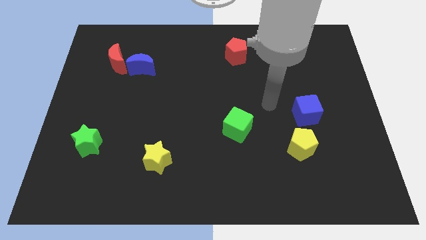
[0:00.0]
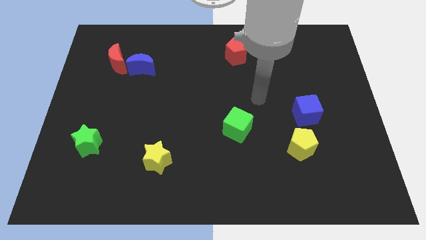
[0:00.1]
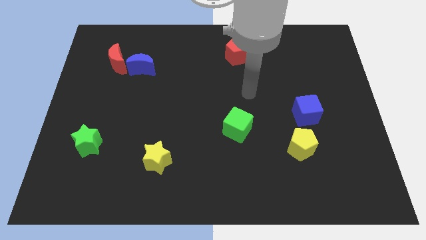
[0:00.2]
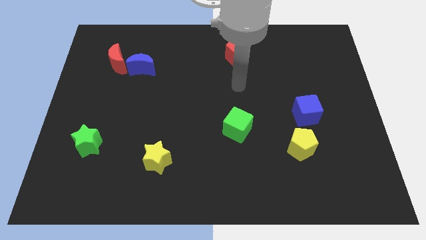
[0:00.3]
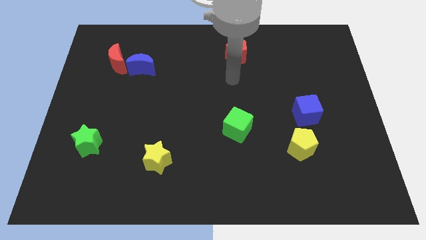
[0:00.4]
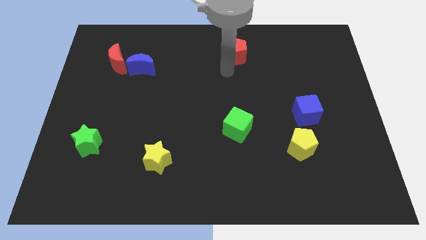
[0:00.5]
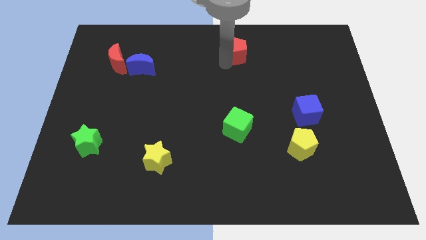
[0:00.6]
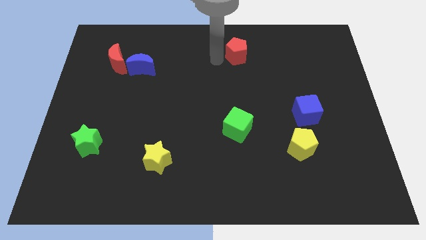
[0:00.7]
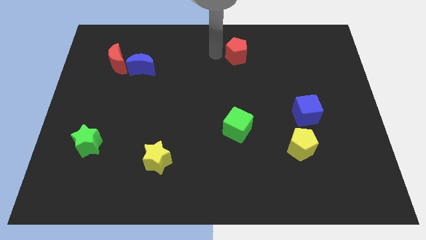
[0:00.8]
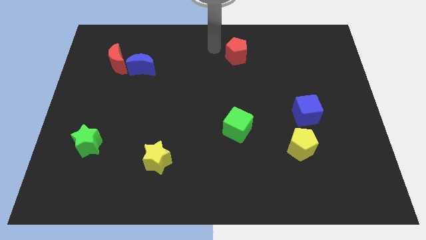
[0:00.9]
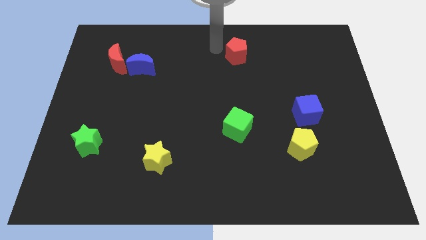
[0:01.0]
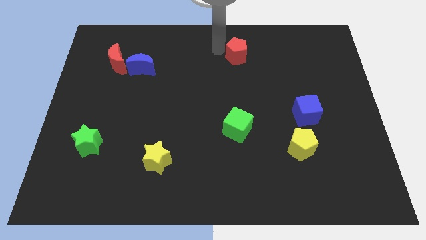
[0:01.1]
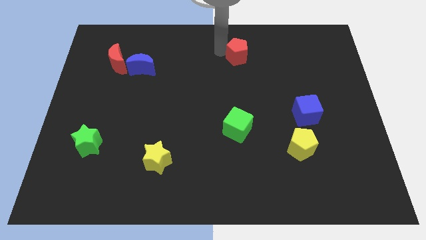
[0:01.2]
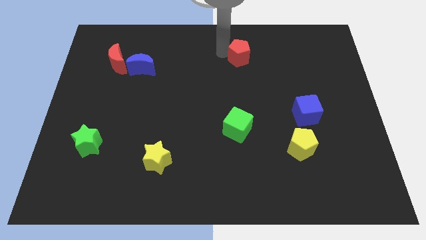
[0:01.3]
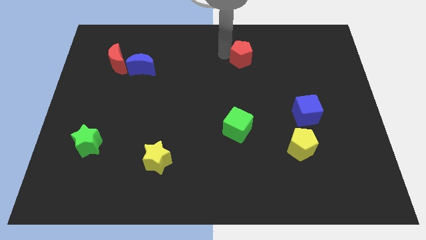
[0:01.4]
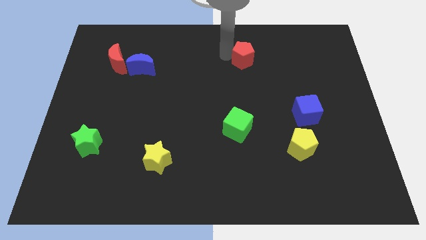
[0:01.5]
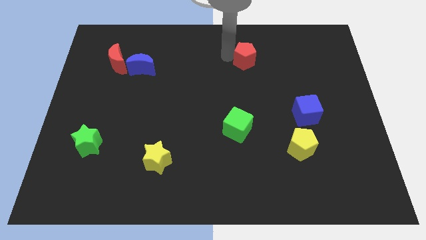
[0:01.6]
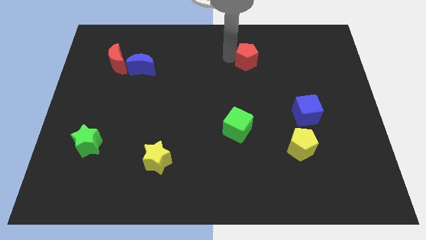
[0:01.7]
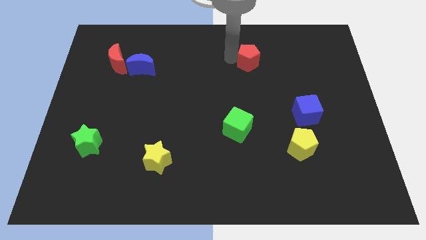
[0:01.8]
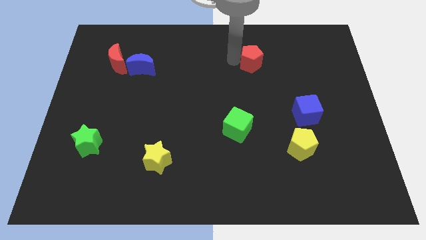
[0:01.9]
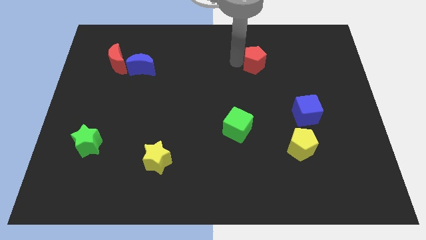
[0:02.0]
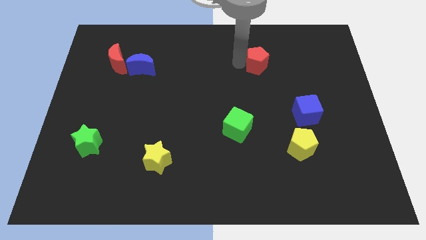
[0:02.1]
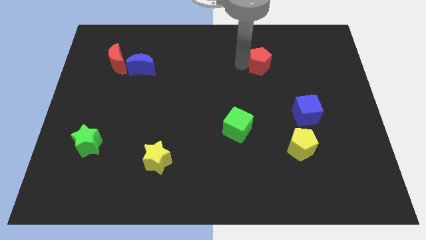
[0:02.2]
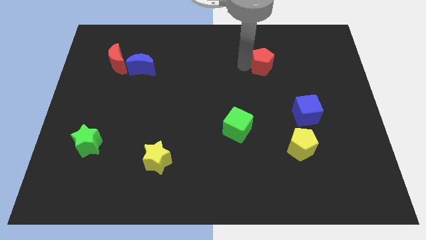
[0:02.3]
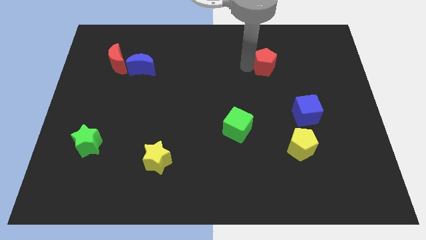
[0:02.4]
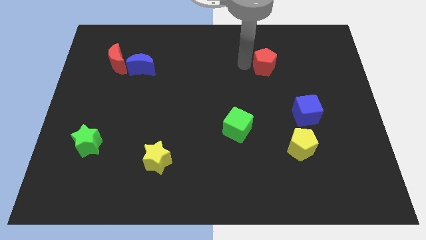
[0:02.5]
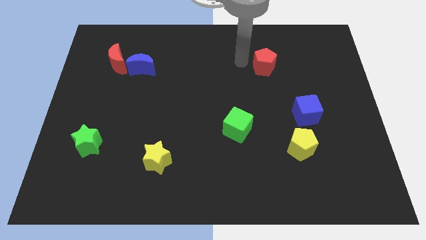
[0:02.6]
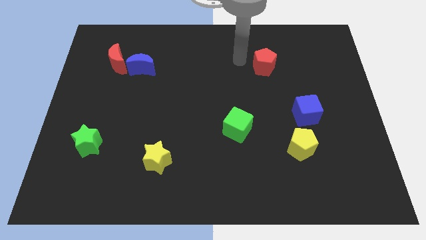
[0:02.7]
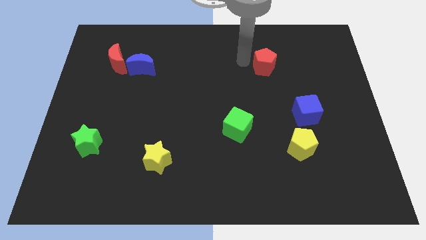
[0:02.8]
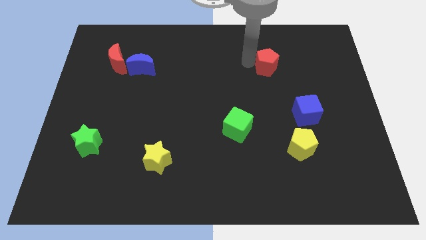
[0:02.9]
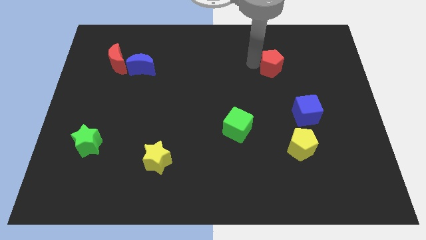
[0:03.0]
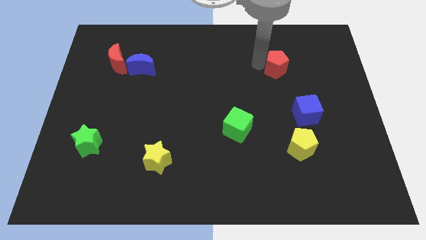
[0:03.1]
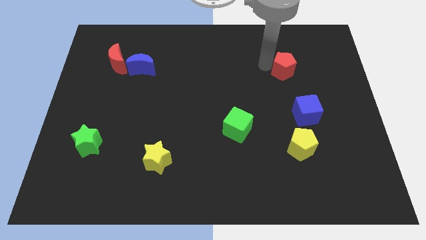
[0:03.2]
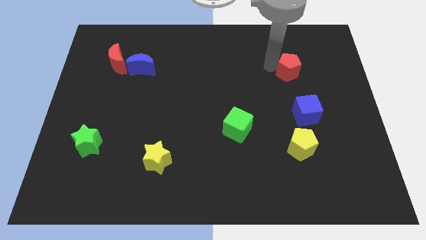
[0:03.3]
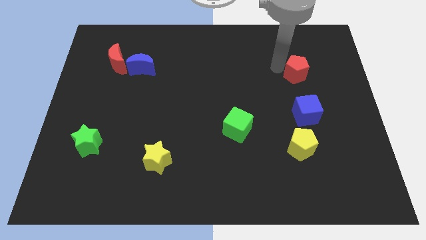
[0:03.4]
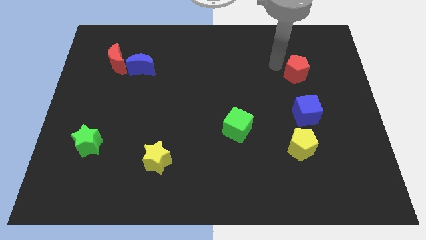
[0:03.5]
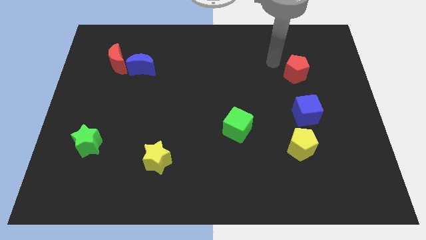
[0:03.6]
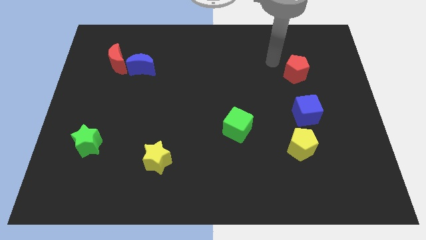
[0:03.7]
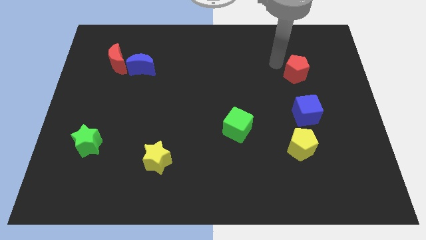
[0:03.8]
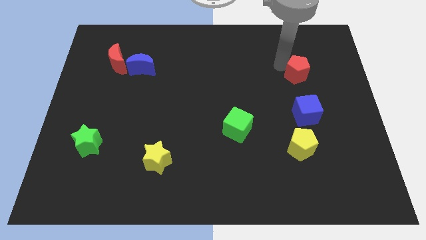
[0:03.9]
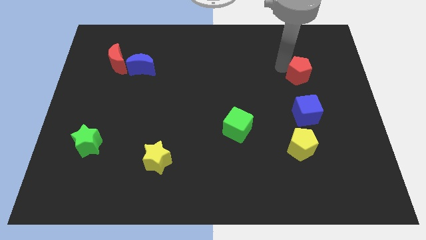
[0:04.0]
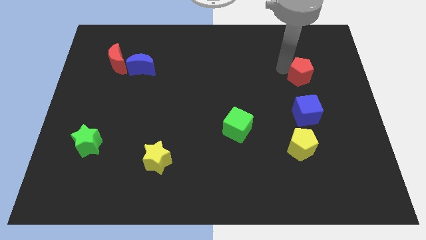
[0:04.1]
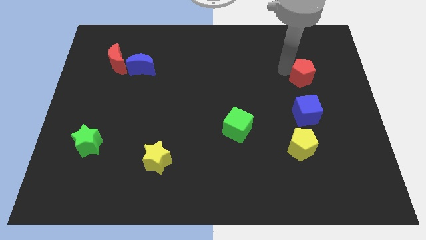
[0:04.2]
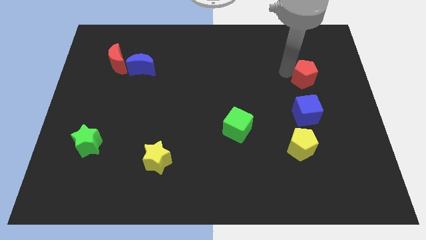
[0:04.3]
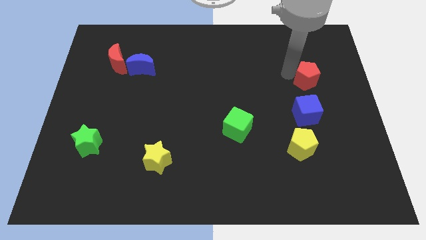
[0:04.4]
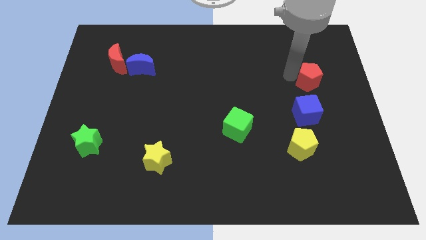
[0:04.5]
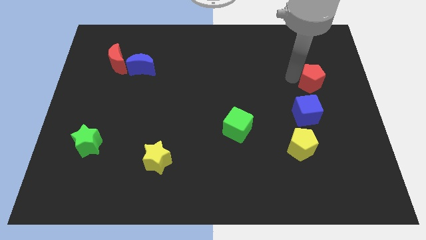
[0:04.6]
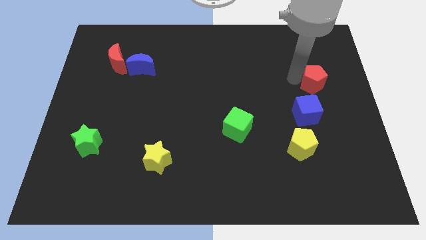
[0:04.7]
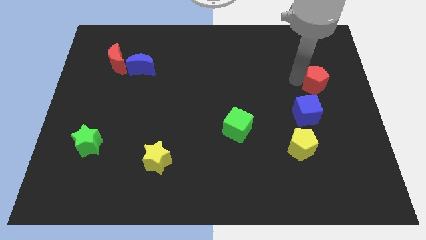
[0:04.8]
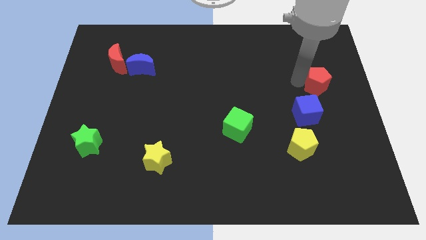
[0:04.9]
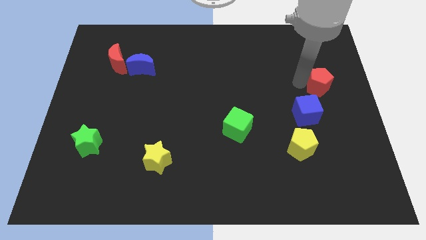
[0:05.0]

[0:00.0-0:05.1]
push the red pentagon to the center right

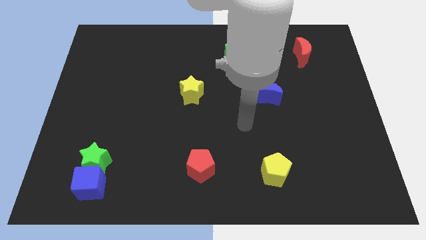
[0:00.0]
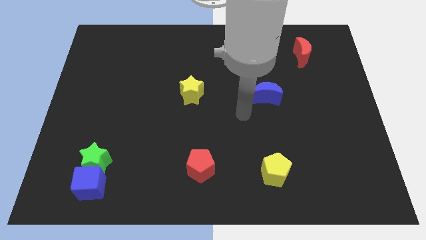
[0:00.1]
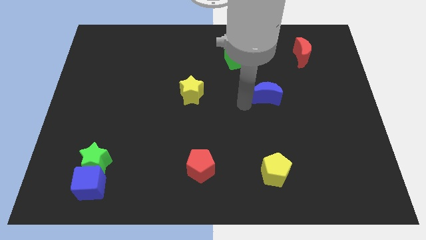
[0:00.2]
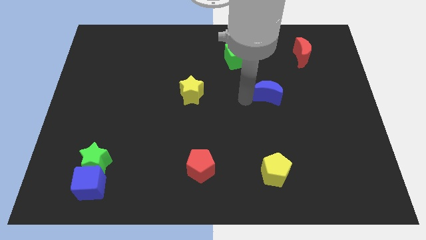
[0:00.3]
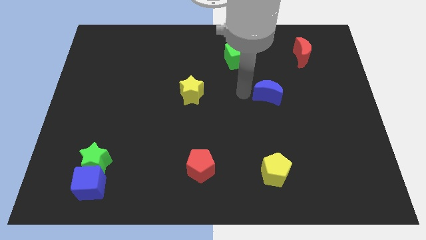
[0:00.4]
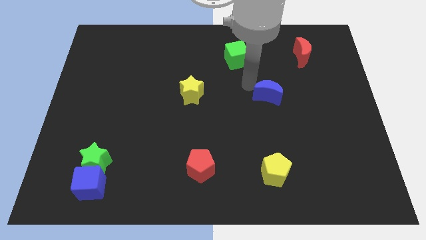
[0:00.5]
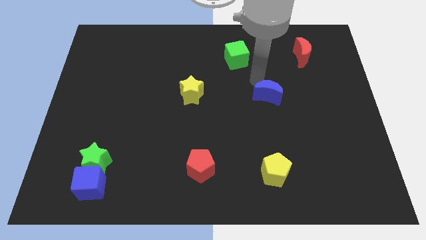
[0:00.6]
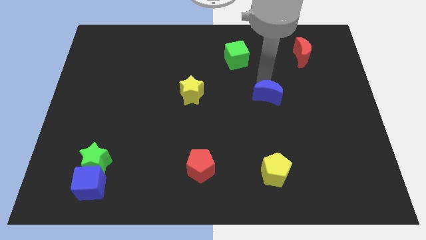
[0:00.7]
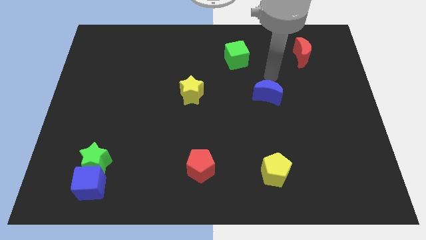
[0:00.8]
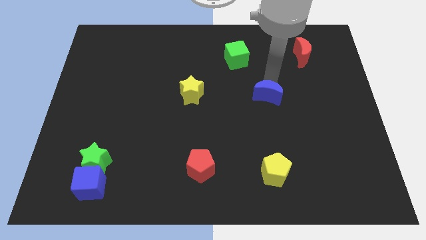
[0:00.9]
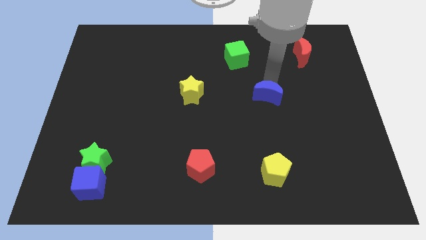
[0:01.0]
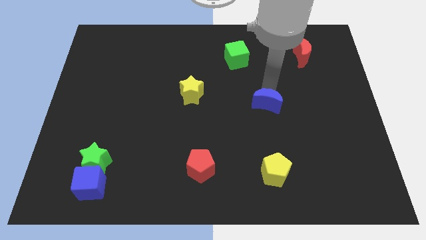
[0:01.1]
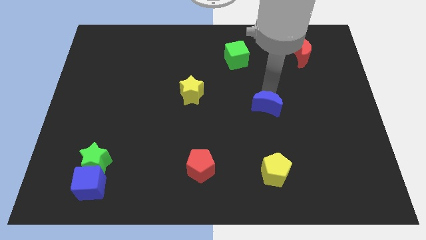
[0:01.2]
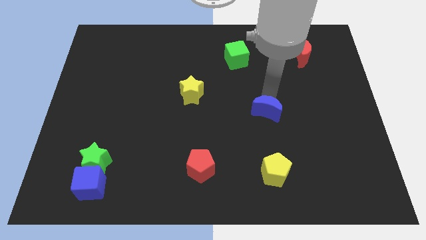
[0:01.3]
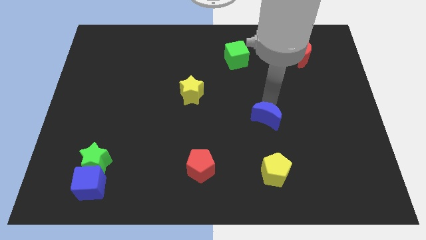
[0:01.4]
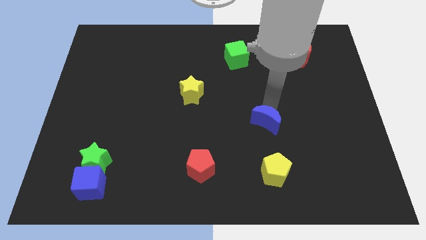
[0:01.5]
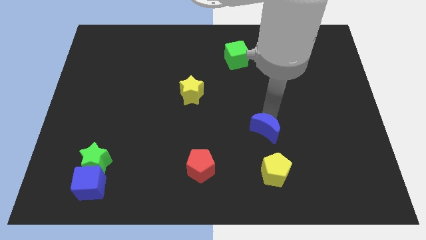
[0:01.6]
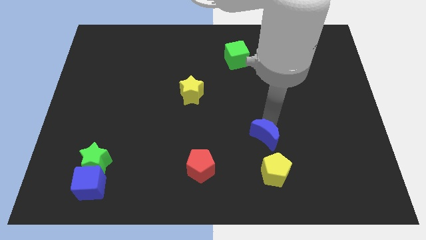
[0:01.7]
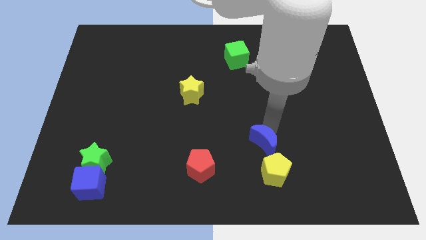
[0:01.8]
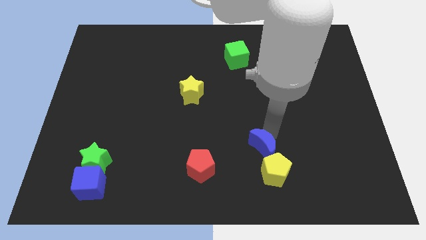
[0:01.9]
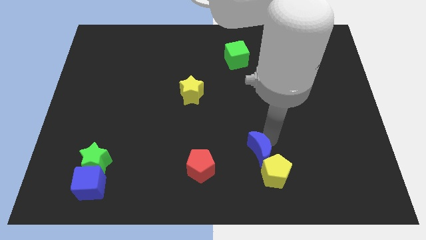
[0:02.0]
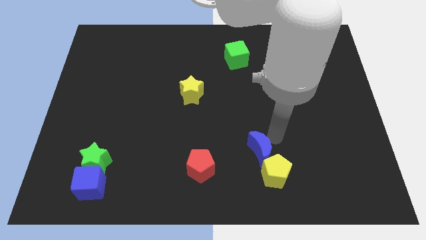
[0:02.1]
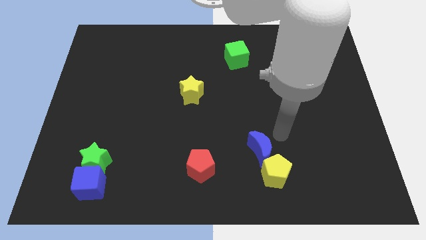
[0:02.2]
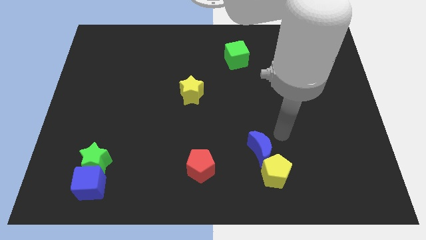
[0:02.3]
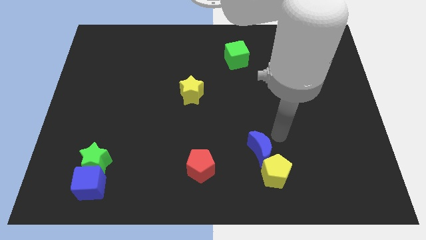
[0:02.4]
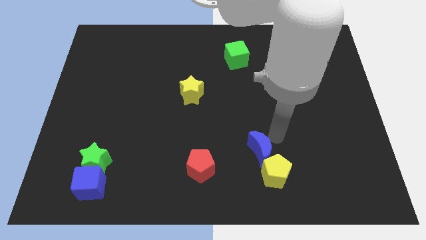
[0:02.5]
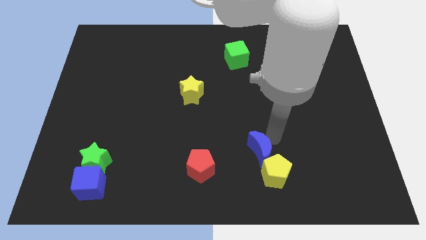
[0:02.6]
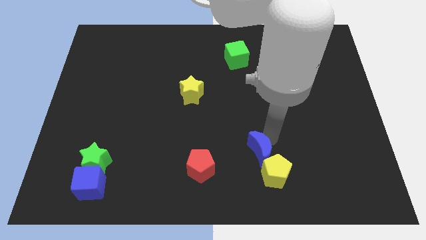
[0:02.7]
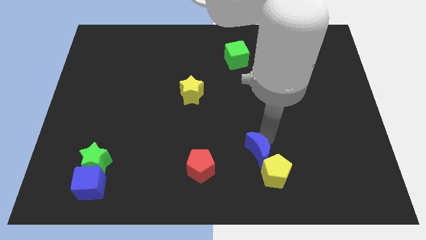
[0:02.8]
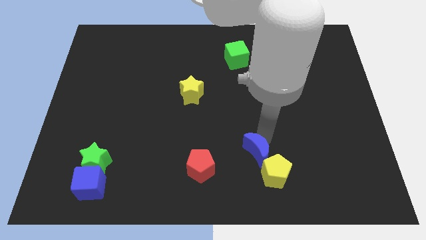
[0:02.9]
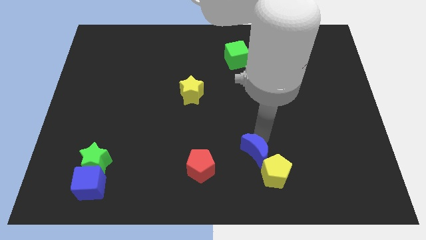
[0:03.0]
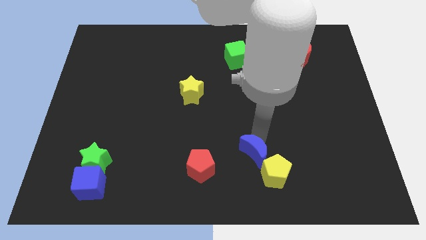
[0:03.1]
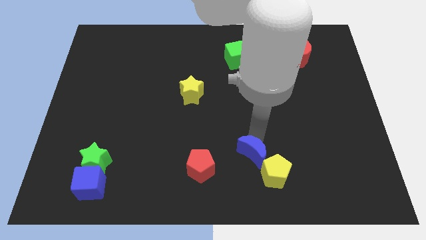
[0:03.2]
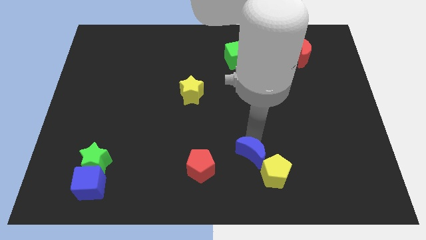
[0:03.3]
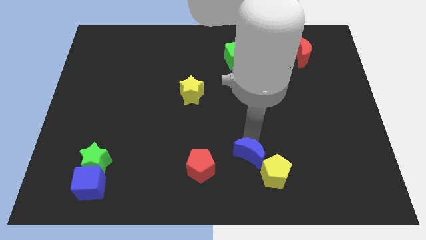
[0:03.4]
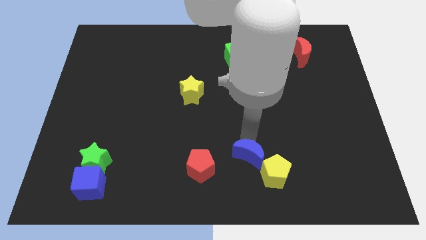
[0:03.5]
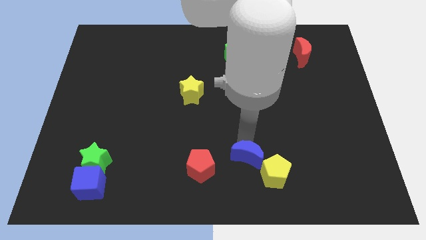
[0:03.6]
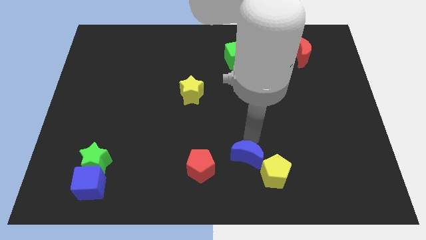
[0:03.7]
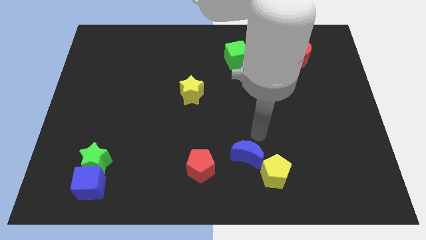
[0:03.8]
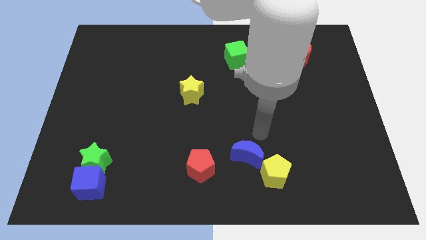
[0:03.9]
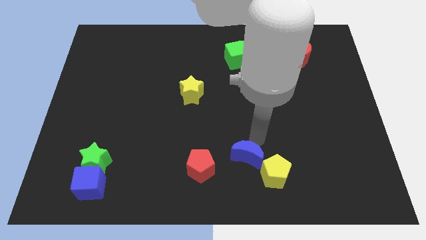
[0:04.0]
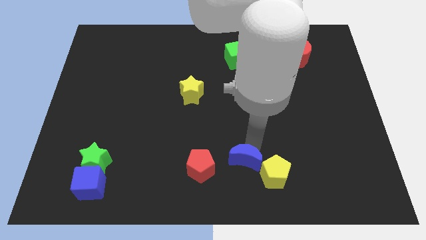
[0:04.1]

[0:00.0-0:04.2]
move the blue moon to the bottom
